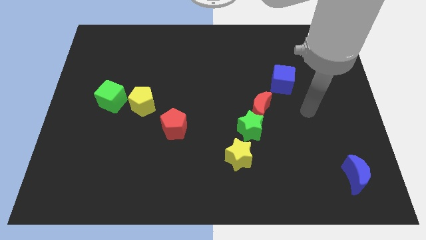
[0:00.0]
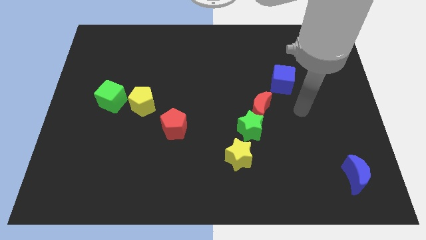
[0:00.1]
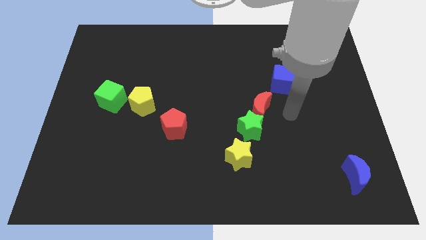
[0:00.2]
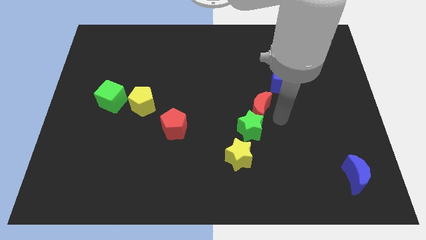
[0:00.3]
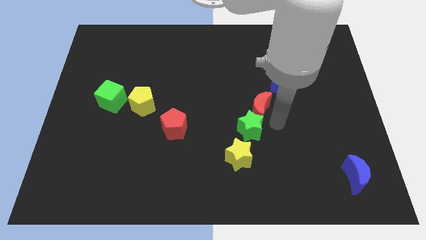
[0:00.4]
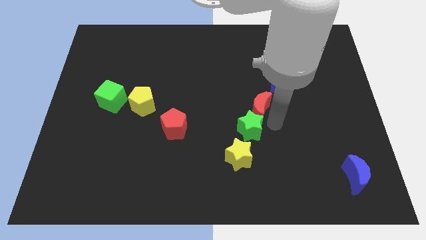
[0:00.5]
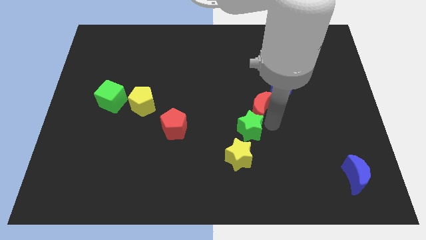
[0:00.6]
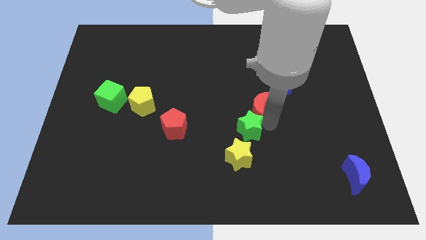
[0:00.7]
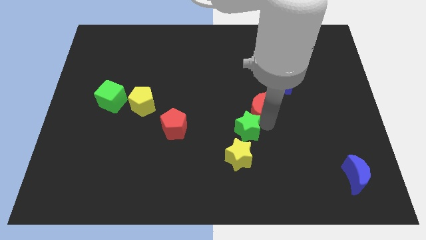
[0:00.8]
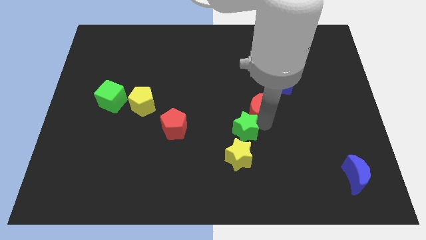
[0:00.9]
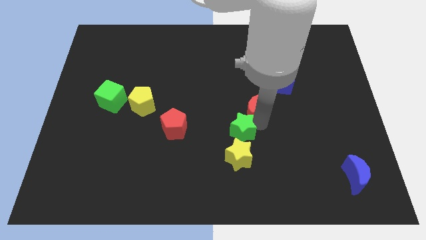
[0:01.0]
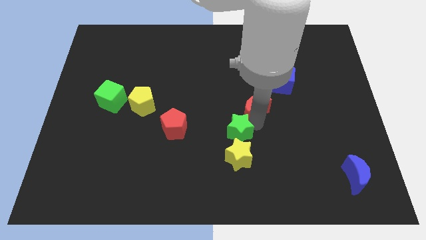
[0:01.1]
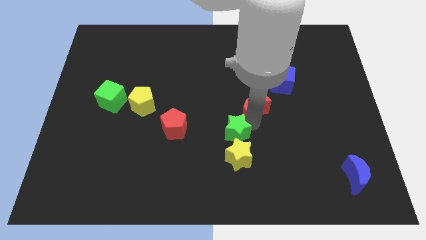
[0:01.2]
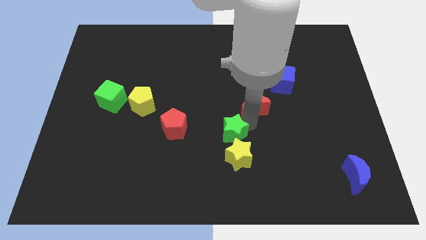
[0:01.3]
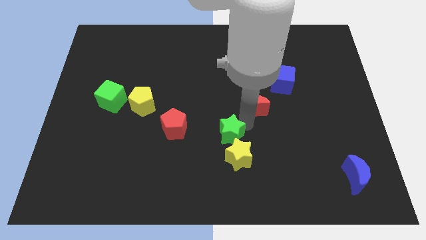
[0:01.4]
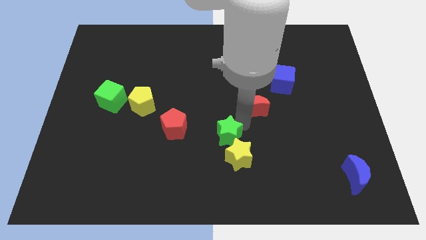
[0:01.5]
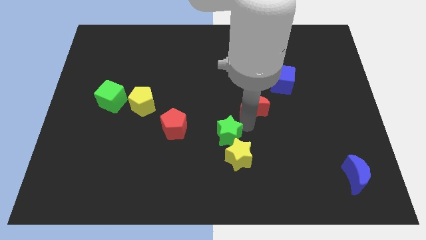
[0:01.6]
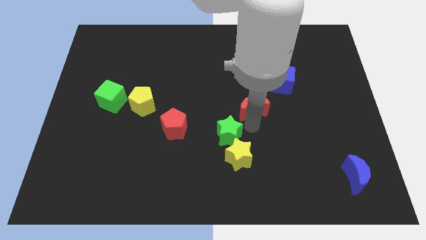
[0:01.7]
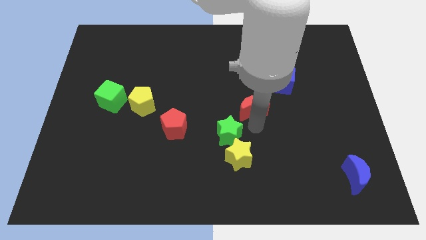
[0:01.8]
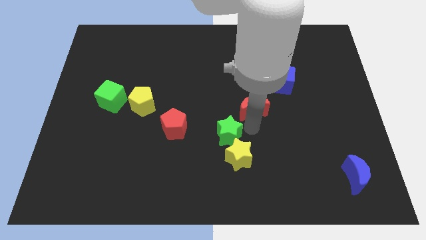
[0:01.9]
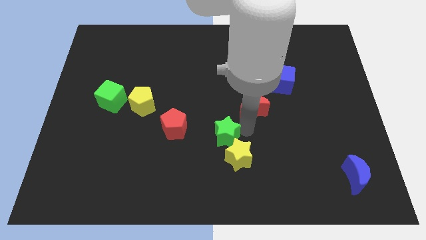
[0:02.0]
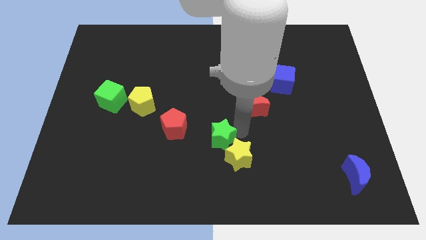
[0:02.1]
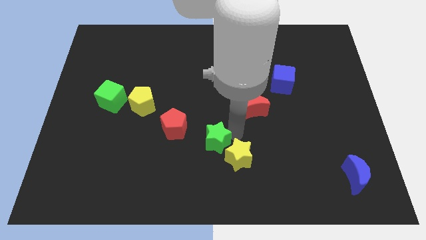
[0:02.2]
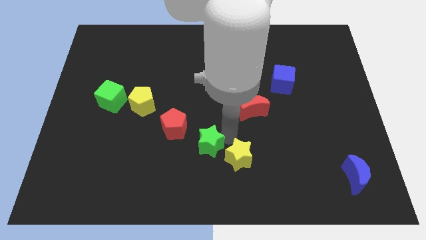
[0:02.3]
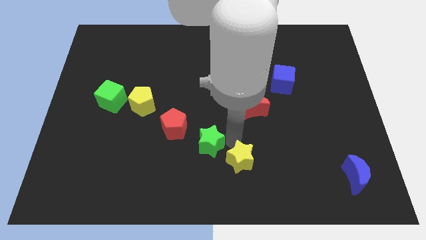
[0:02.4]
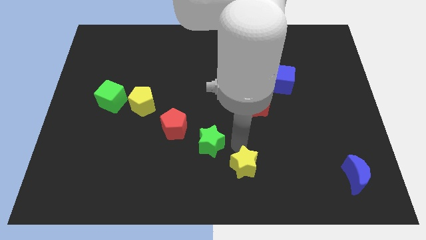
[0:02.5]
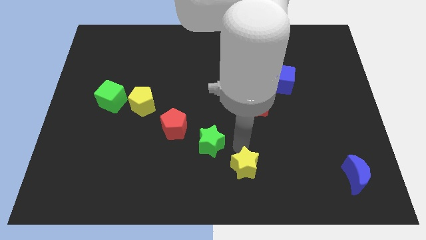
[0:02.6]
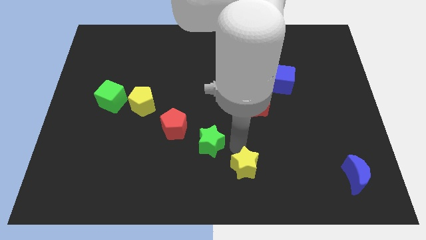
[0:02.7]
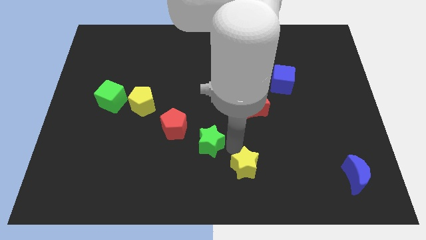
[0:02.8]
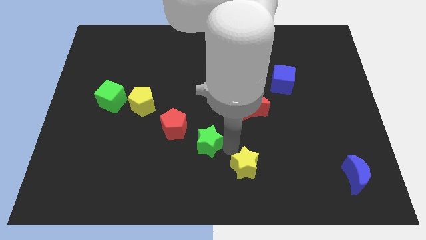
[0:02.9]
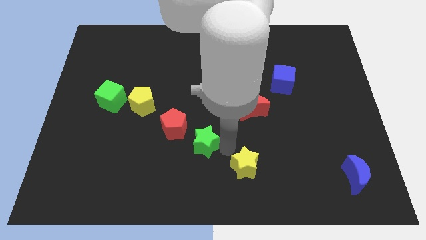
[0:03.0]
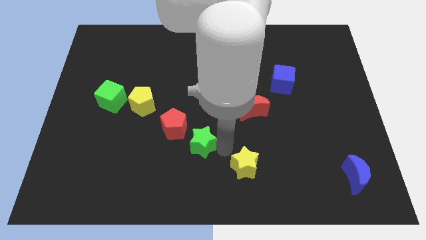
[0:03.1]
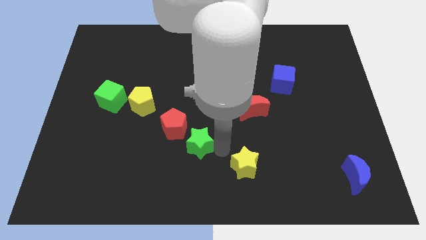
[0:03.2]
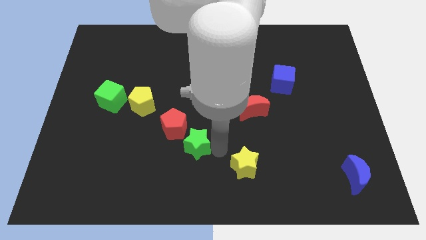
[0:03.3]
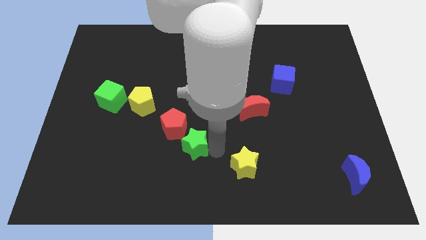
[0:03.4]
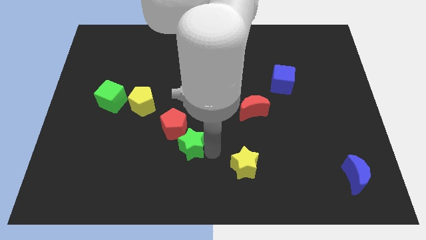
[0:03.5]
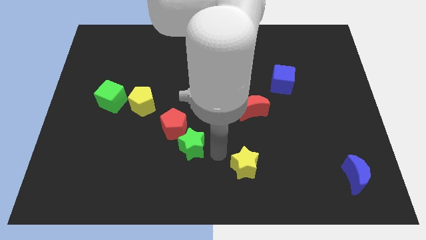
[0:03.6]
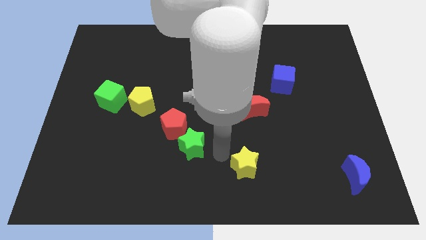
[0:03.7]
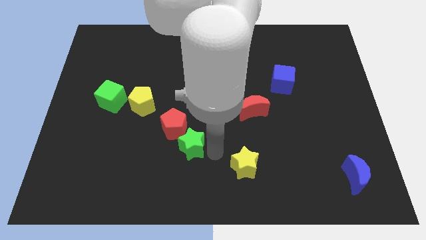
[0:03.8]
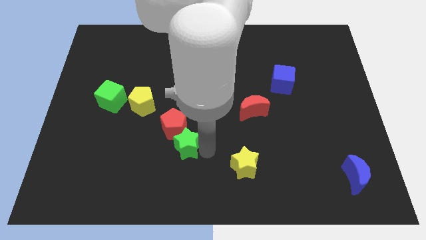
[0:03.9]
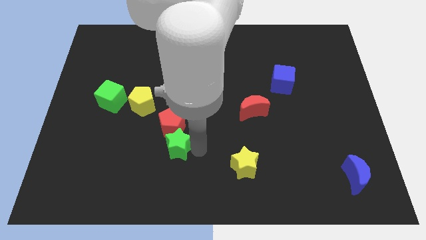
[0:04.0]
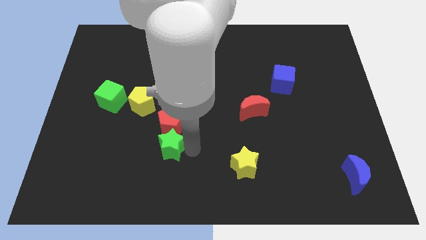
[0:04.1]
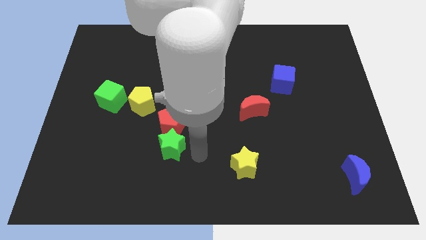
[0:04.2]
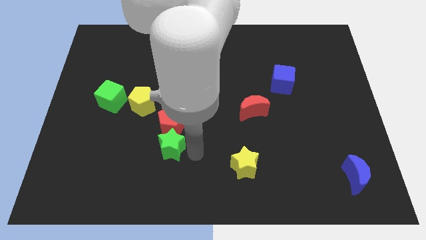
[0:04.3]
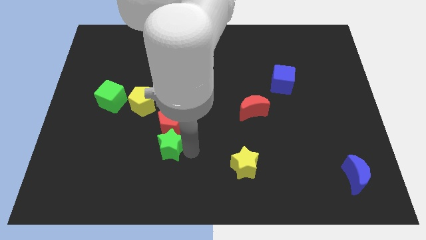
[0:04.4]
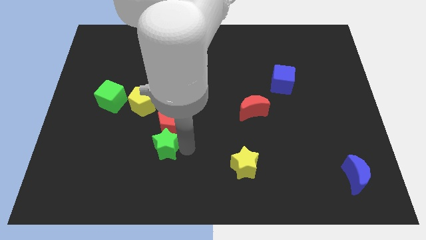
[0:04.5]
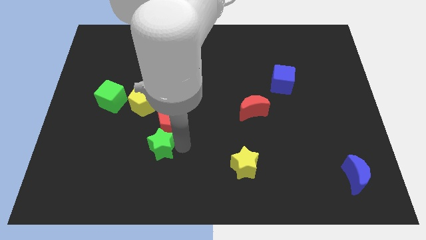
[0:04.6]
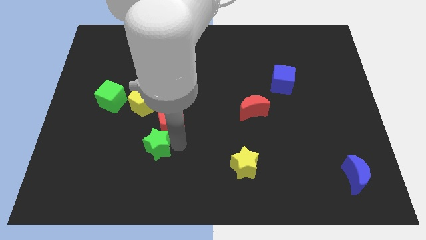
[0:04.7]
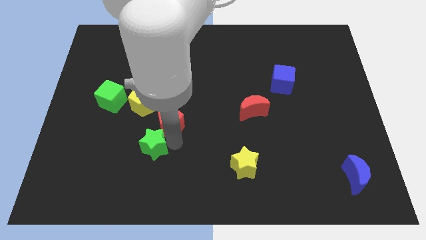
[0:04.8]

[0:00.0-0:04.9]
push the green star to the left

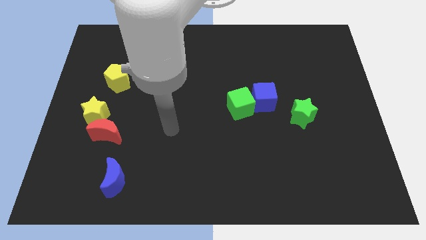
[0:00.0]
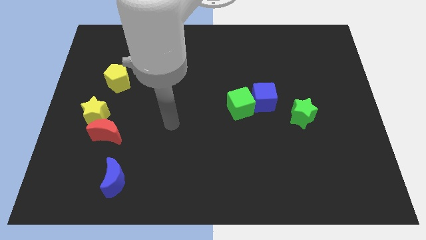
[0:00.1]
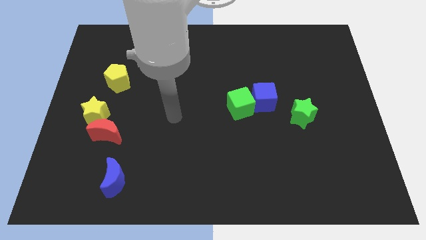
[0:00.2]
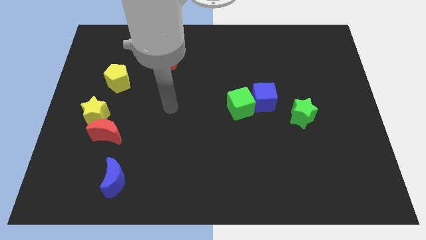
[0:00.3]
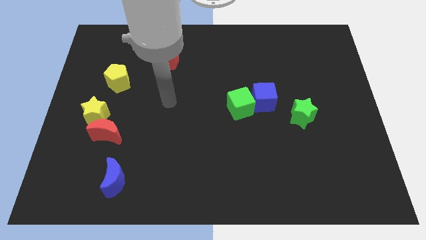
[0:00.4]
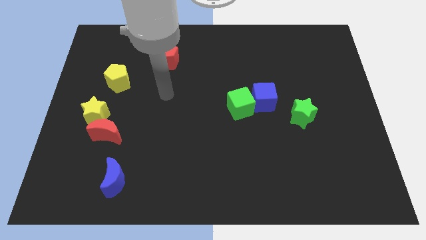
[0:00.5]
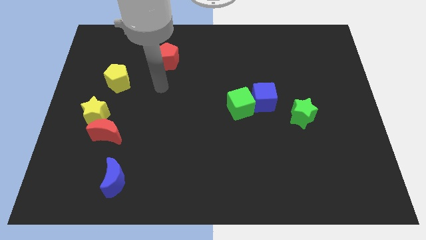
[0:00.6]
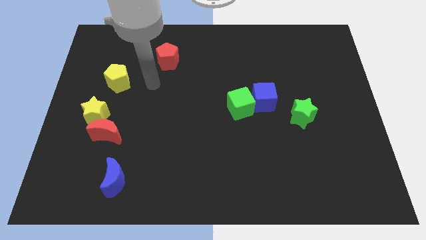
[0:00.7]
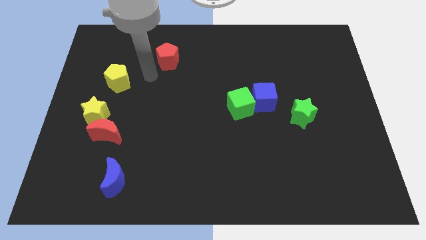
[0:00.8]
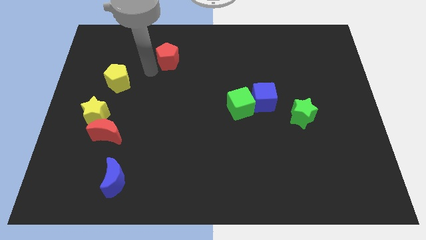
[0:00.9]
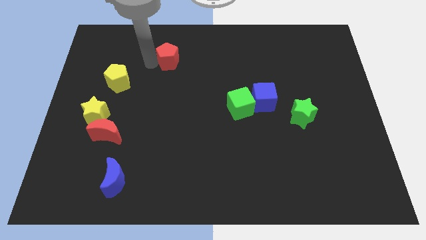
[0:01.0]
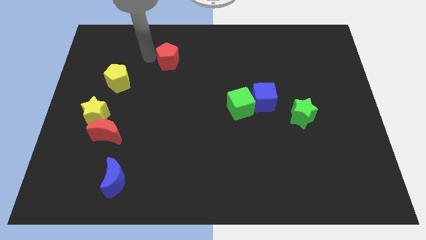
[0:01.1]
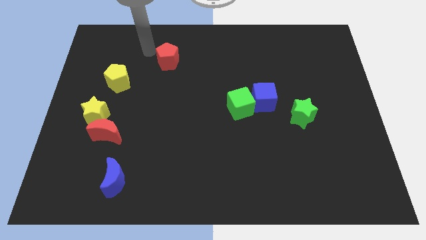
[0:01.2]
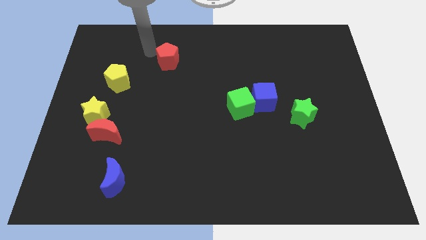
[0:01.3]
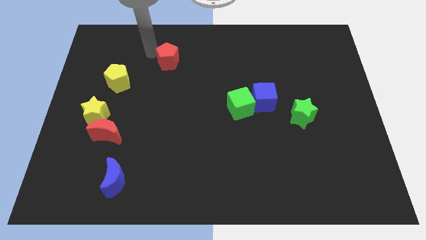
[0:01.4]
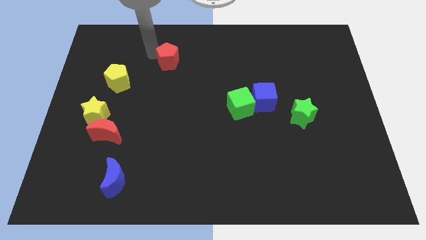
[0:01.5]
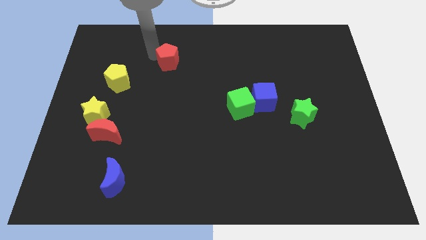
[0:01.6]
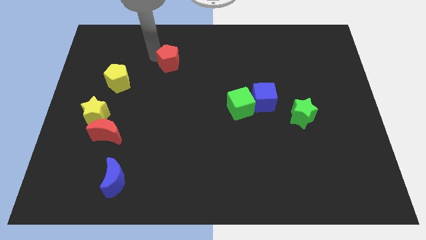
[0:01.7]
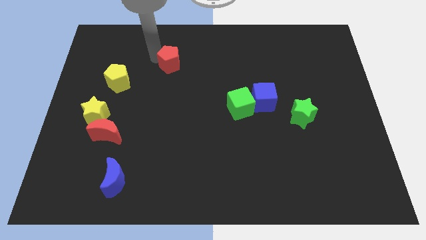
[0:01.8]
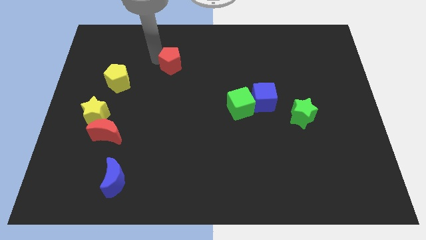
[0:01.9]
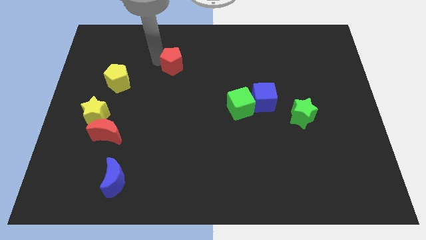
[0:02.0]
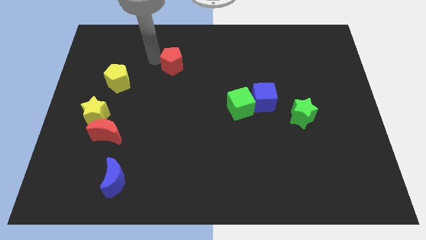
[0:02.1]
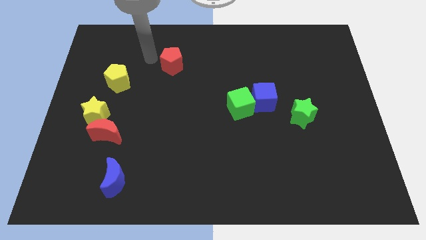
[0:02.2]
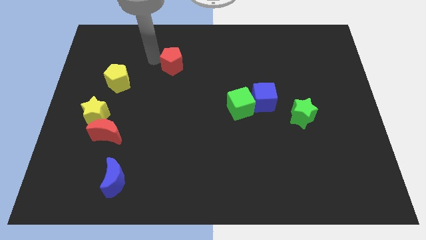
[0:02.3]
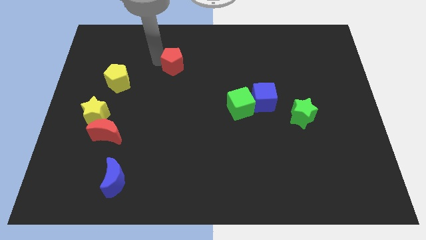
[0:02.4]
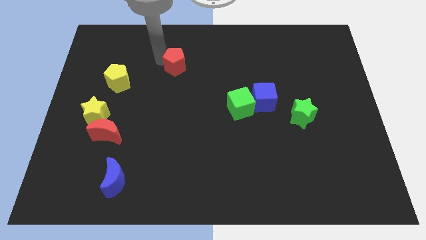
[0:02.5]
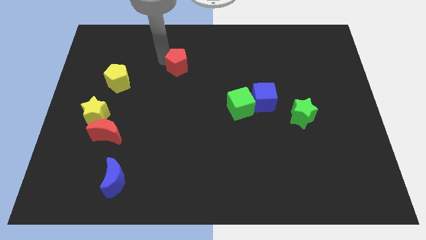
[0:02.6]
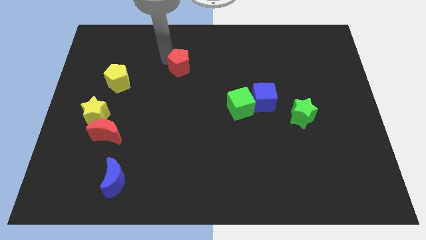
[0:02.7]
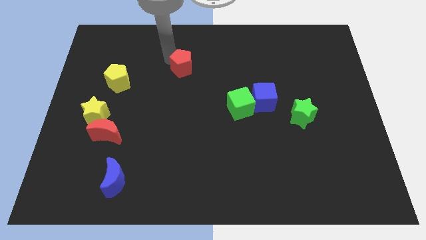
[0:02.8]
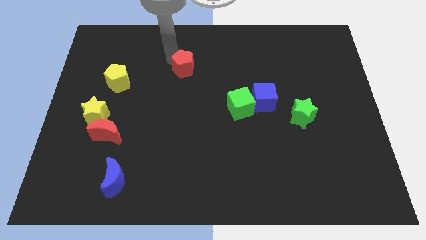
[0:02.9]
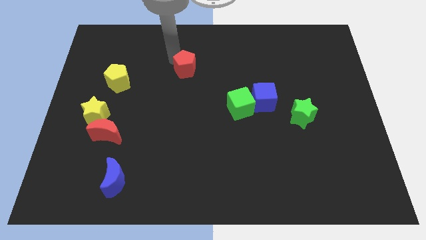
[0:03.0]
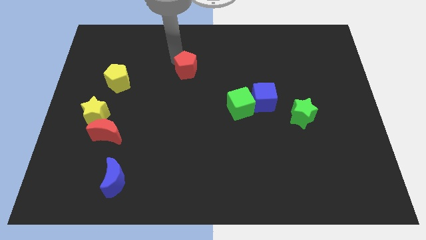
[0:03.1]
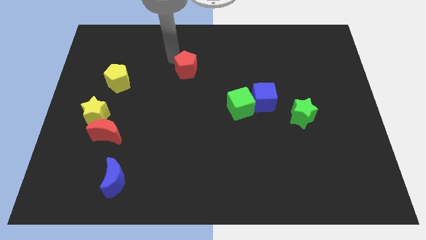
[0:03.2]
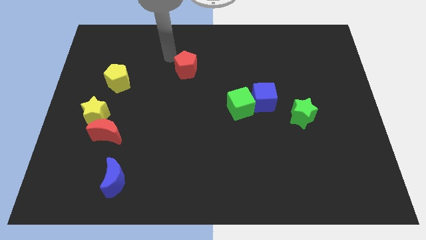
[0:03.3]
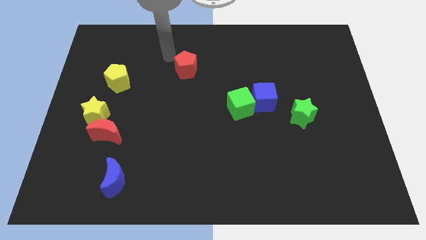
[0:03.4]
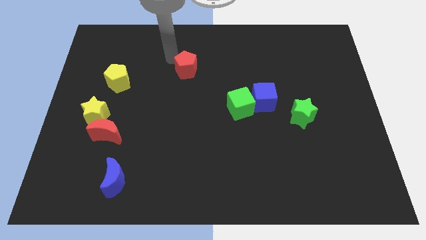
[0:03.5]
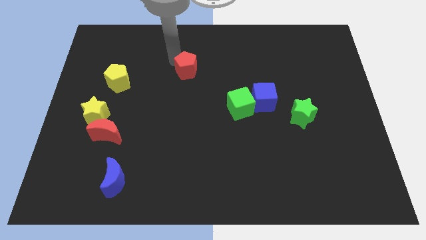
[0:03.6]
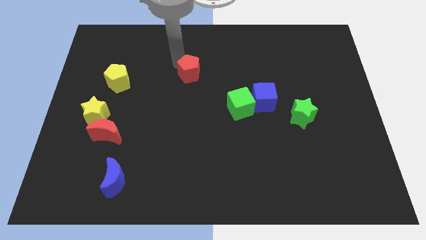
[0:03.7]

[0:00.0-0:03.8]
slightly push the red pentagon down and then right
